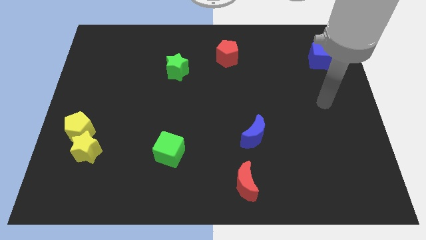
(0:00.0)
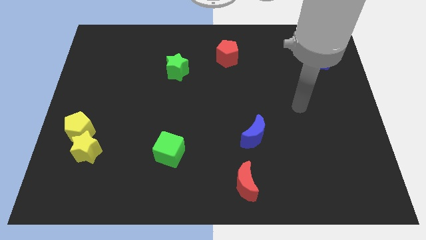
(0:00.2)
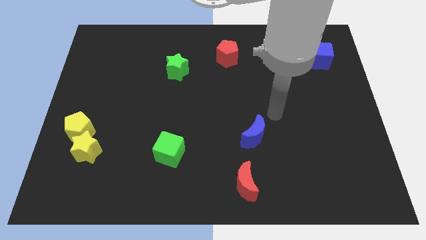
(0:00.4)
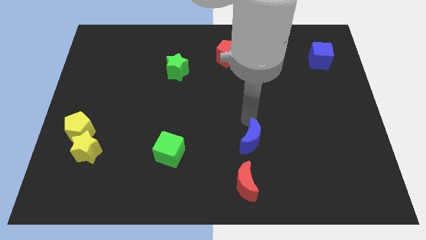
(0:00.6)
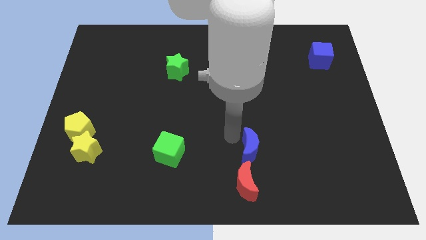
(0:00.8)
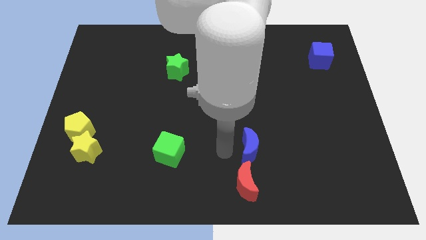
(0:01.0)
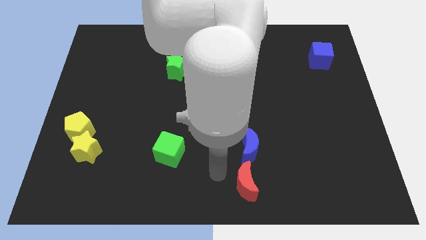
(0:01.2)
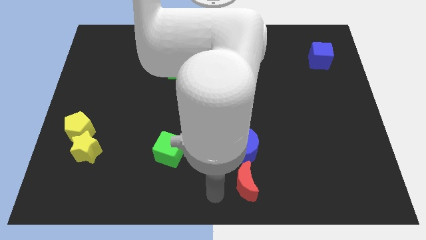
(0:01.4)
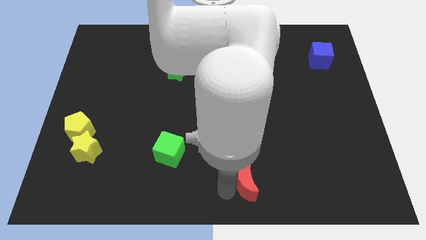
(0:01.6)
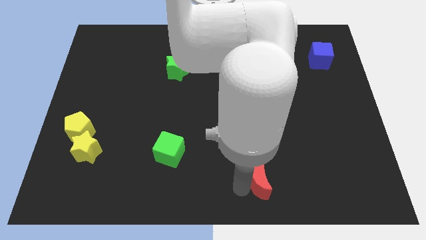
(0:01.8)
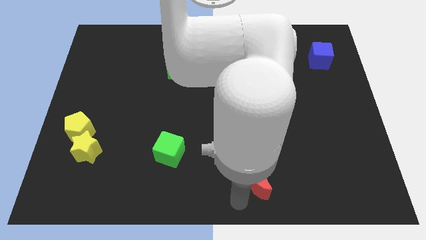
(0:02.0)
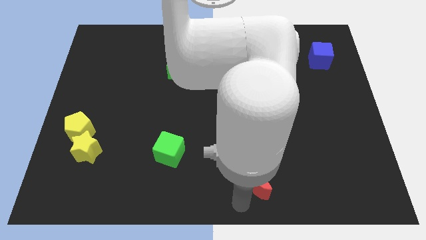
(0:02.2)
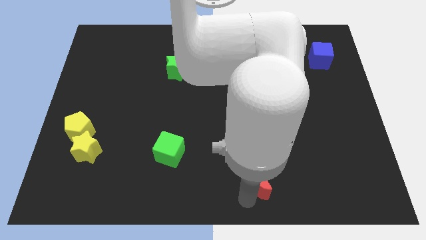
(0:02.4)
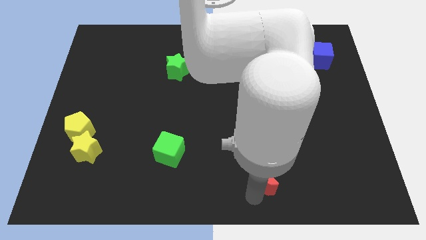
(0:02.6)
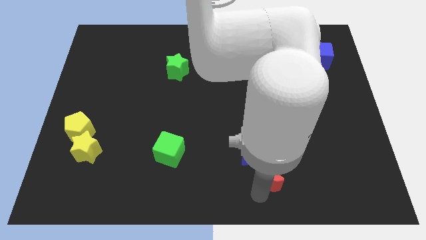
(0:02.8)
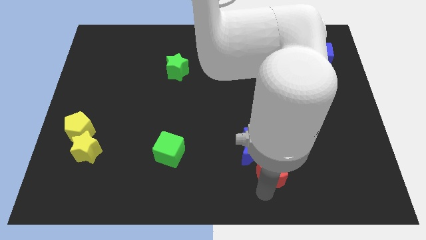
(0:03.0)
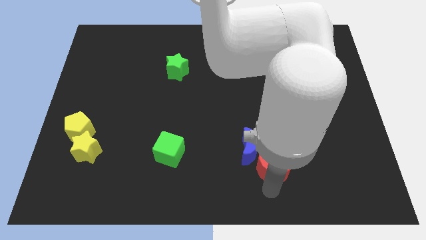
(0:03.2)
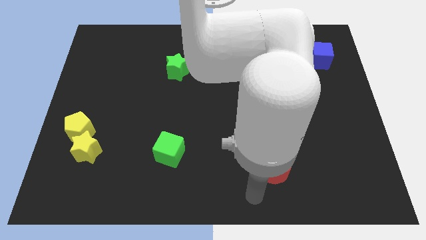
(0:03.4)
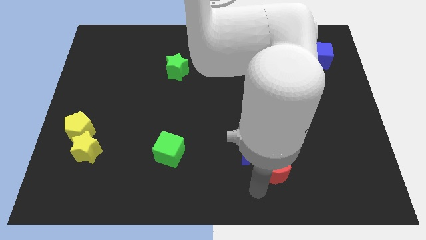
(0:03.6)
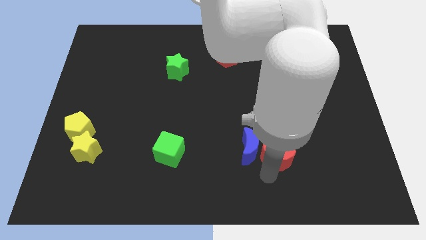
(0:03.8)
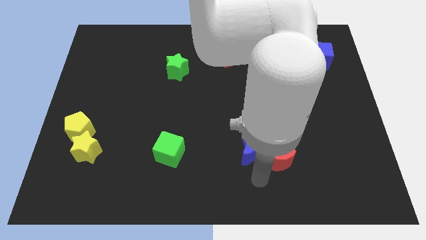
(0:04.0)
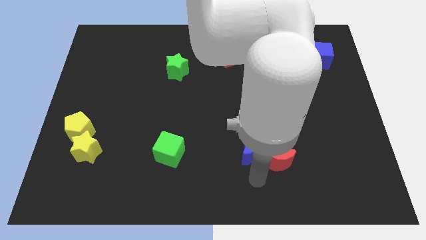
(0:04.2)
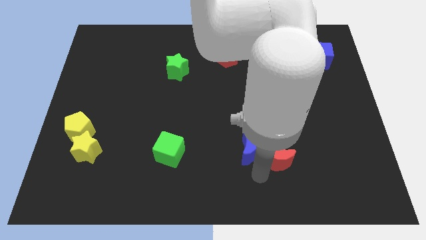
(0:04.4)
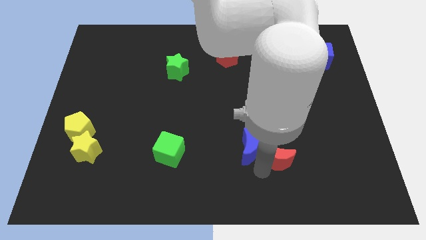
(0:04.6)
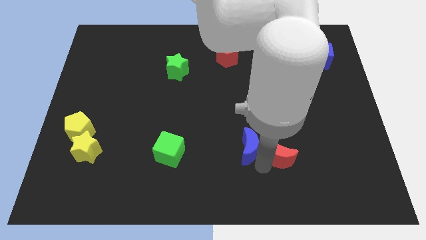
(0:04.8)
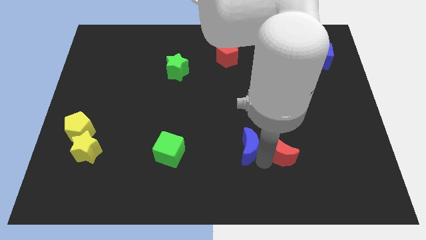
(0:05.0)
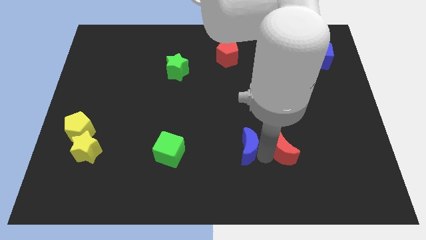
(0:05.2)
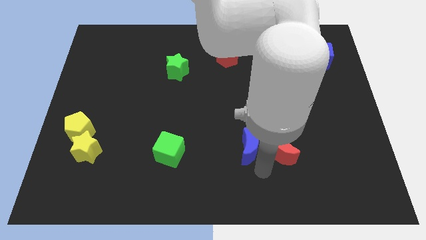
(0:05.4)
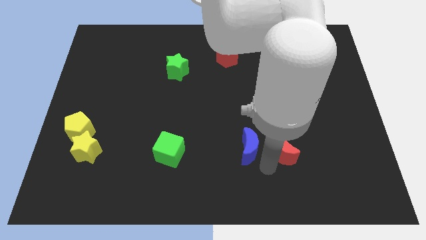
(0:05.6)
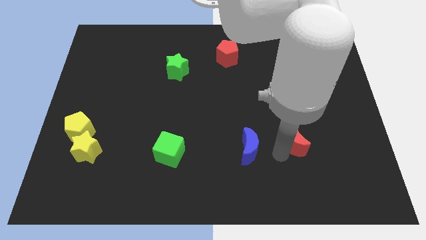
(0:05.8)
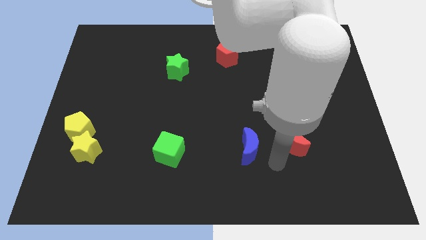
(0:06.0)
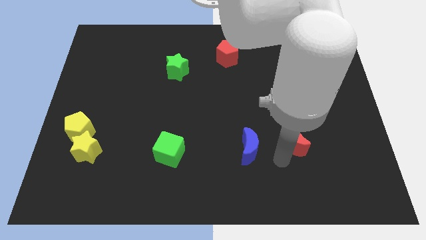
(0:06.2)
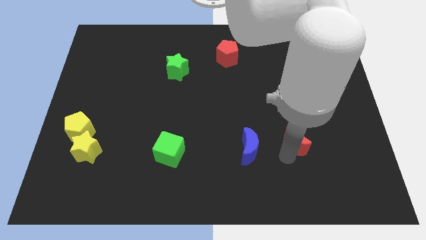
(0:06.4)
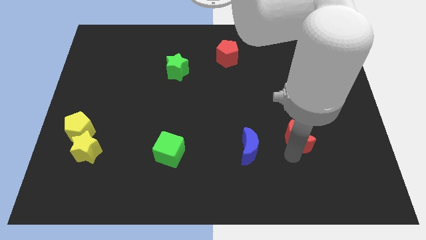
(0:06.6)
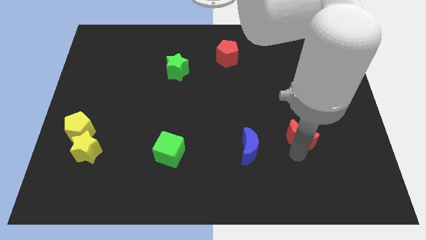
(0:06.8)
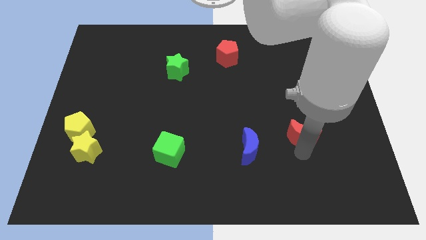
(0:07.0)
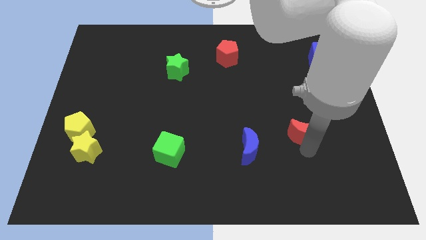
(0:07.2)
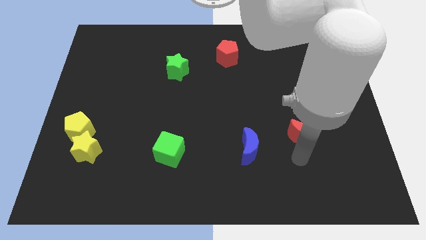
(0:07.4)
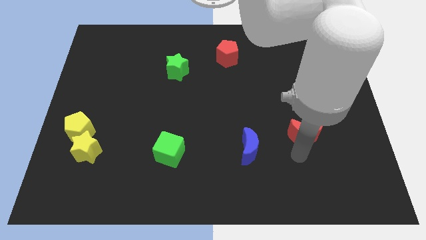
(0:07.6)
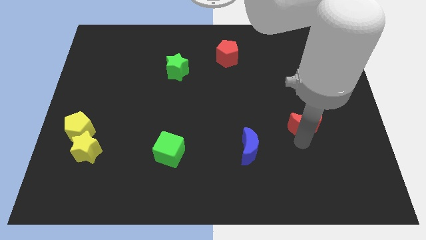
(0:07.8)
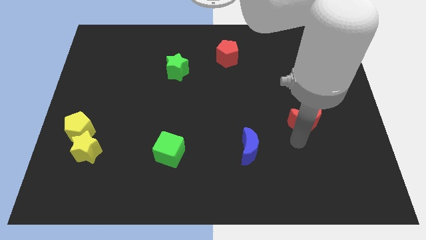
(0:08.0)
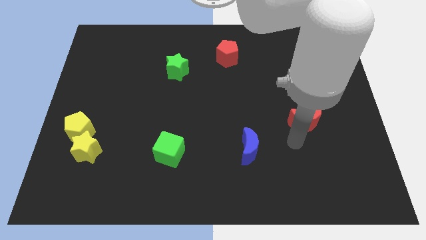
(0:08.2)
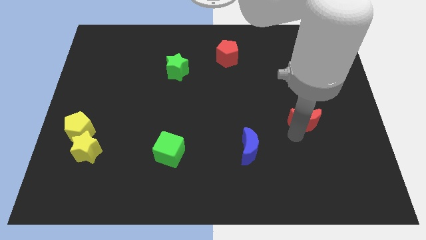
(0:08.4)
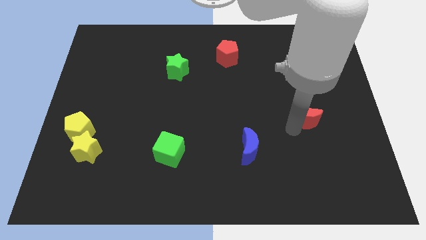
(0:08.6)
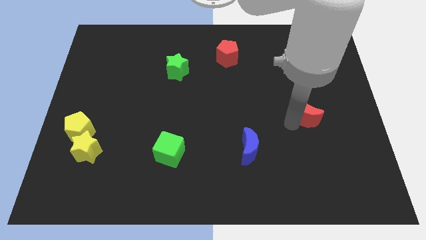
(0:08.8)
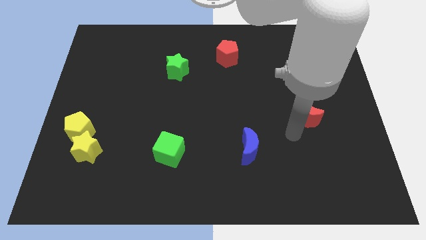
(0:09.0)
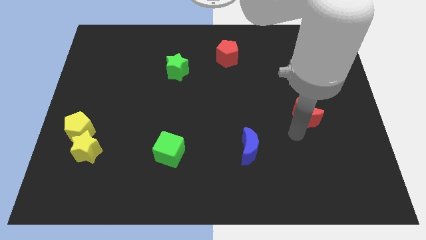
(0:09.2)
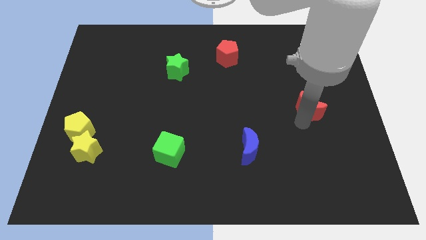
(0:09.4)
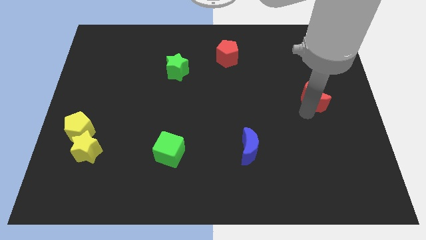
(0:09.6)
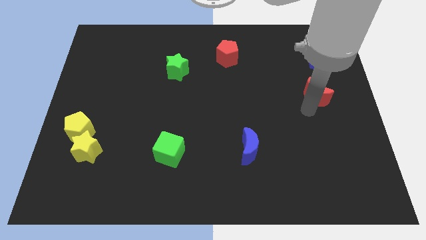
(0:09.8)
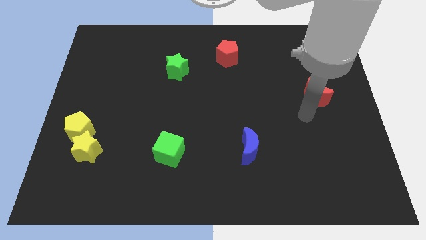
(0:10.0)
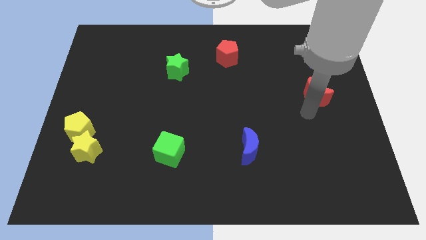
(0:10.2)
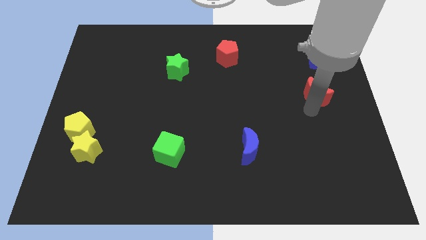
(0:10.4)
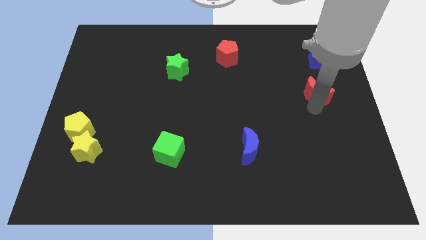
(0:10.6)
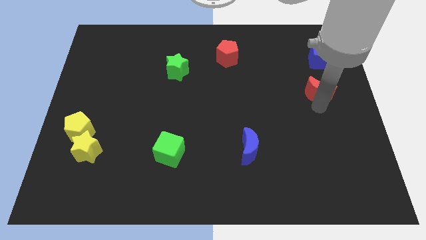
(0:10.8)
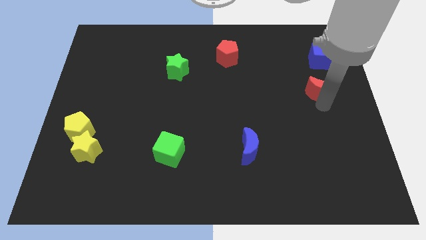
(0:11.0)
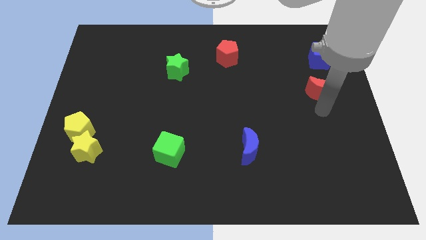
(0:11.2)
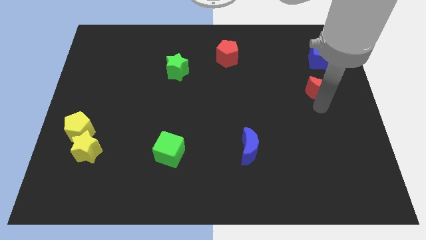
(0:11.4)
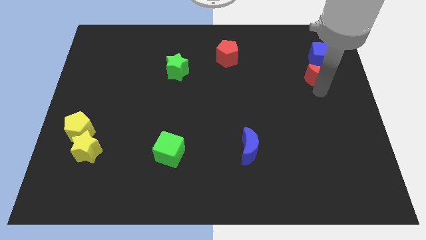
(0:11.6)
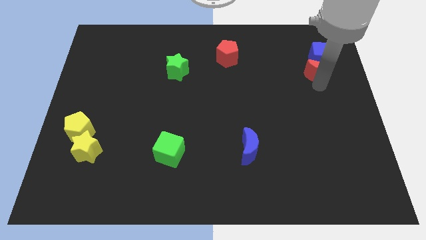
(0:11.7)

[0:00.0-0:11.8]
move the red moon close to the blue cube

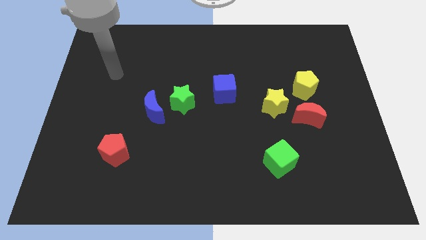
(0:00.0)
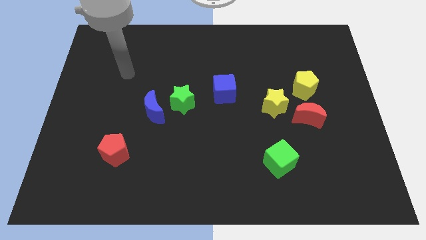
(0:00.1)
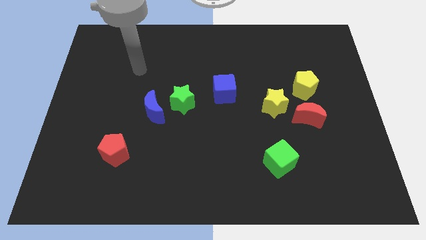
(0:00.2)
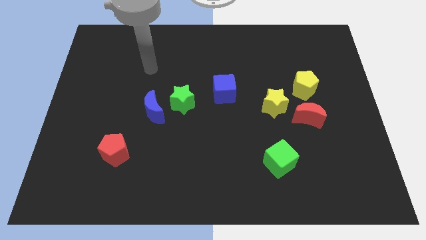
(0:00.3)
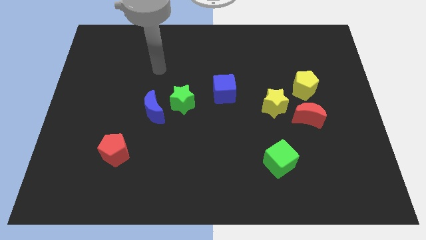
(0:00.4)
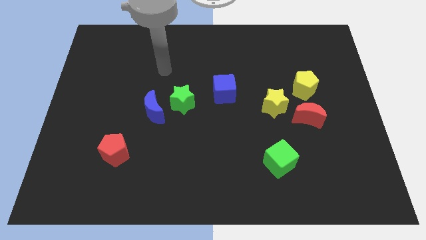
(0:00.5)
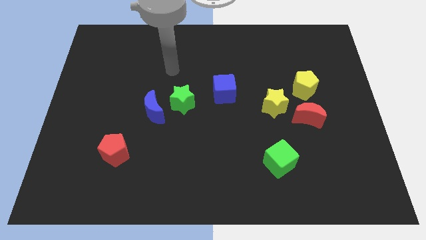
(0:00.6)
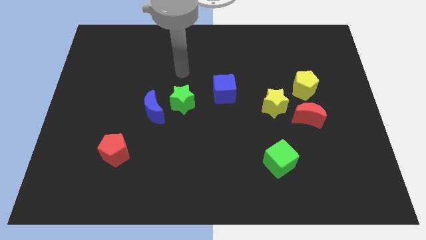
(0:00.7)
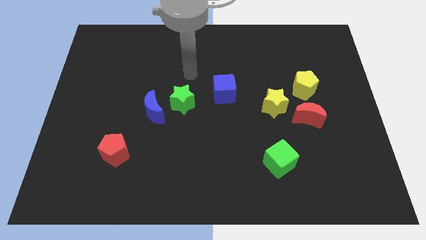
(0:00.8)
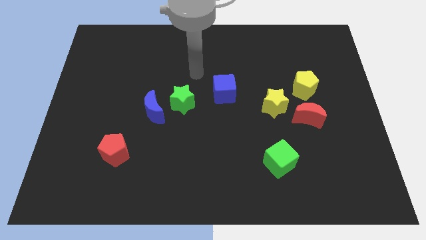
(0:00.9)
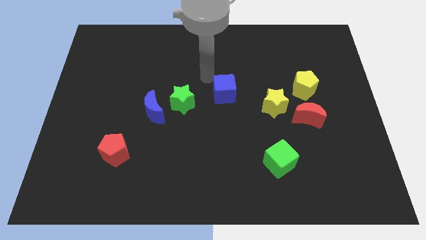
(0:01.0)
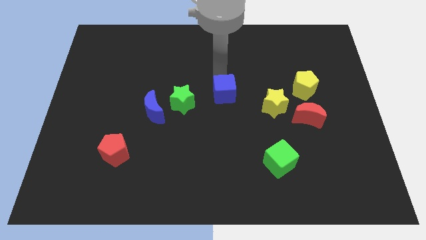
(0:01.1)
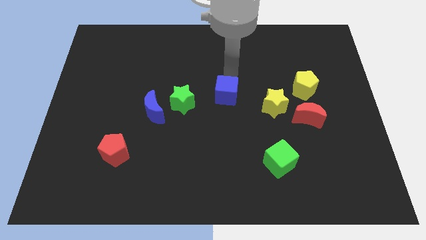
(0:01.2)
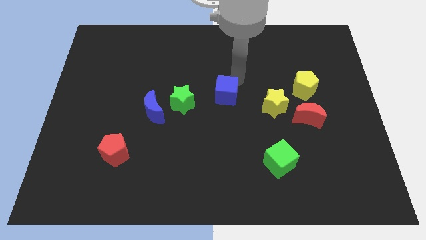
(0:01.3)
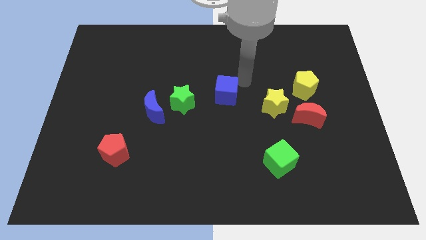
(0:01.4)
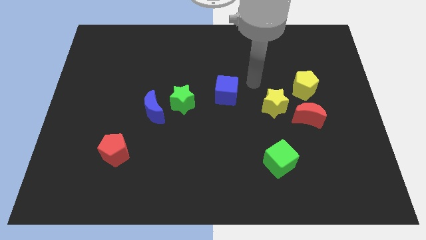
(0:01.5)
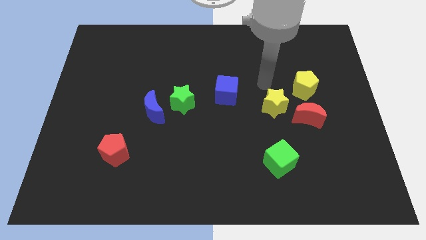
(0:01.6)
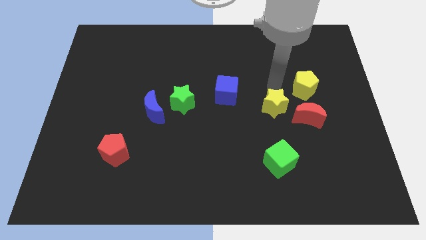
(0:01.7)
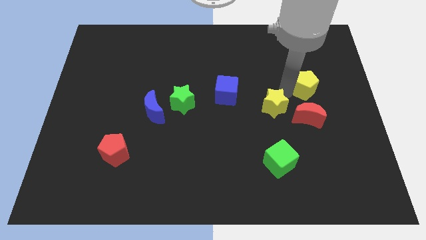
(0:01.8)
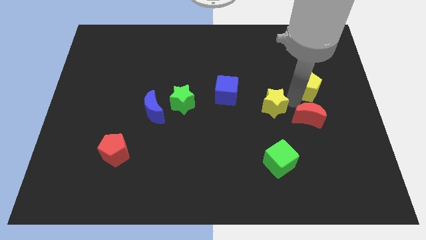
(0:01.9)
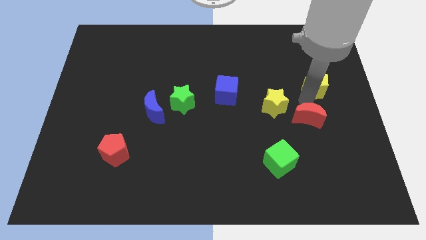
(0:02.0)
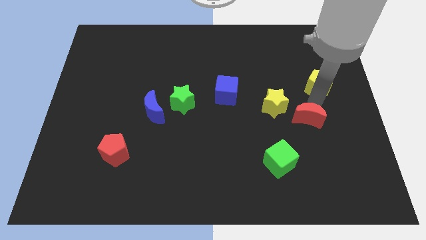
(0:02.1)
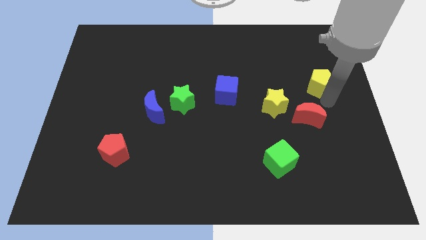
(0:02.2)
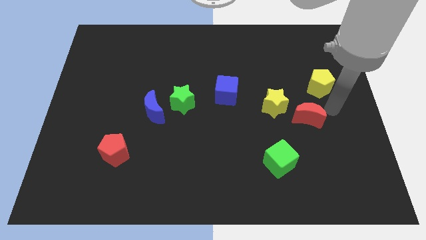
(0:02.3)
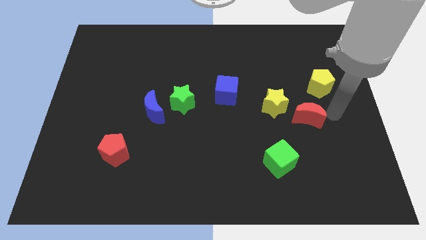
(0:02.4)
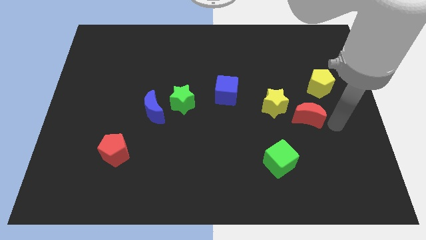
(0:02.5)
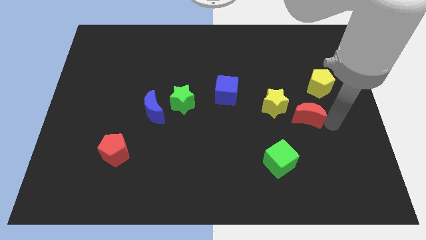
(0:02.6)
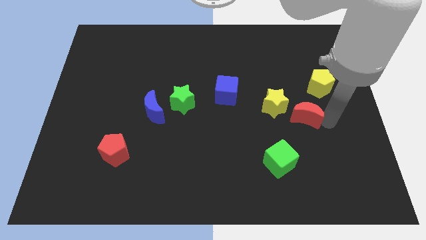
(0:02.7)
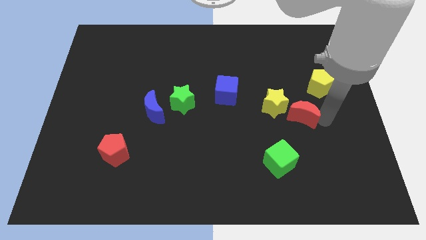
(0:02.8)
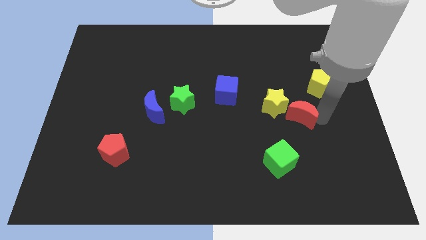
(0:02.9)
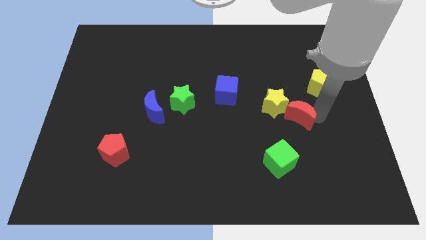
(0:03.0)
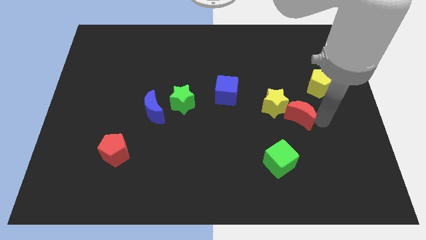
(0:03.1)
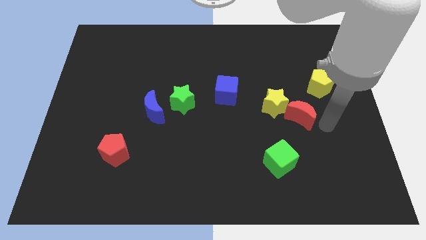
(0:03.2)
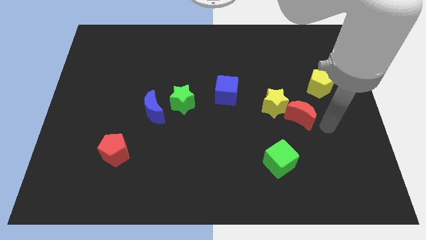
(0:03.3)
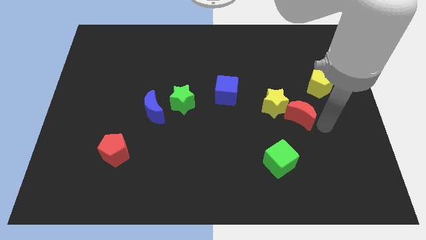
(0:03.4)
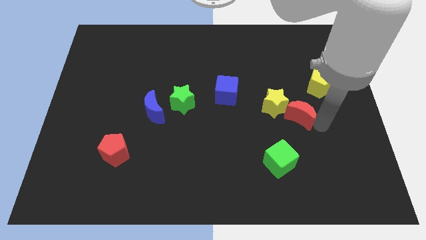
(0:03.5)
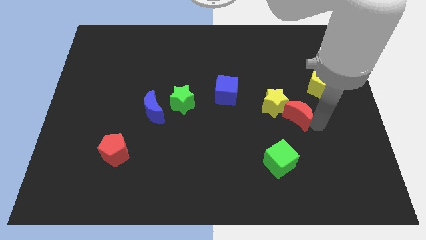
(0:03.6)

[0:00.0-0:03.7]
push the red moon to the yellow star
